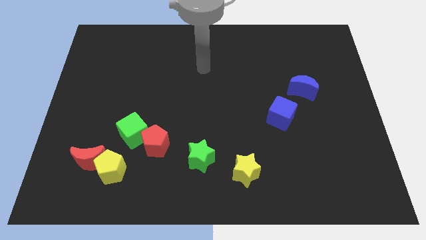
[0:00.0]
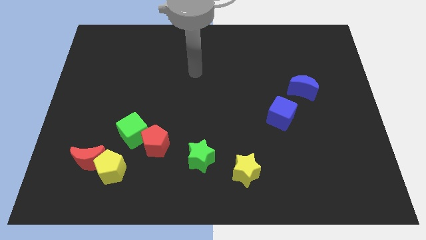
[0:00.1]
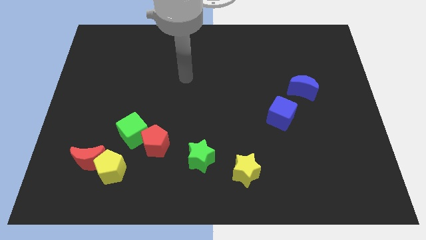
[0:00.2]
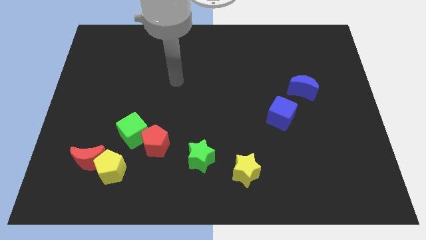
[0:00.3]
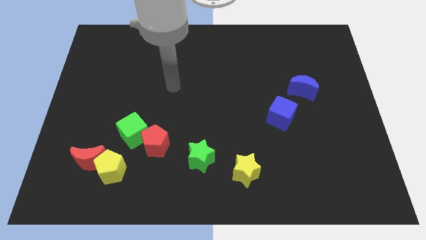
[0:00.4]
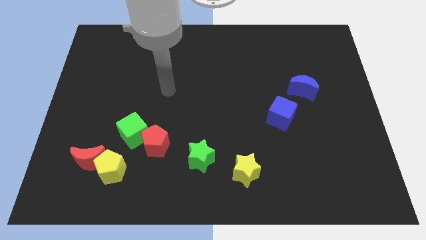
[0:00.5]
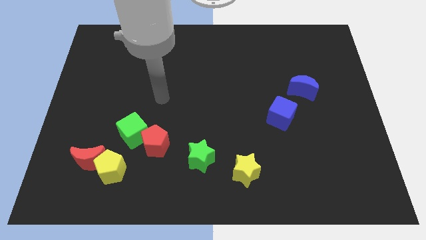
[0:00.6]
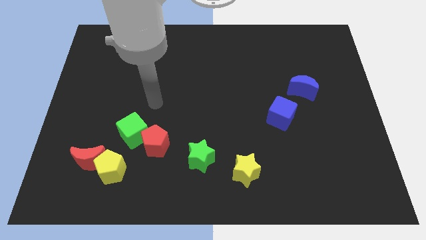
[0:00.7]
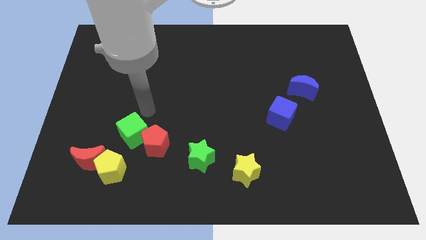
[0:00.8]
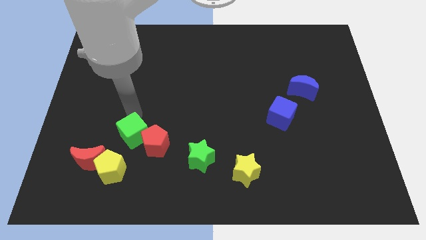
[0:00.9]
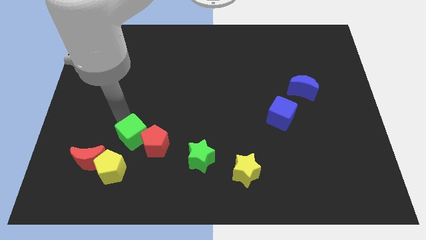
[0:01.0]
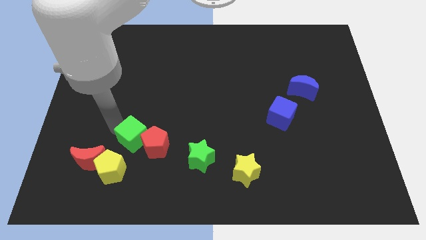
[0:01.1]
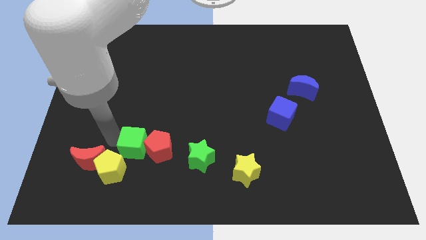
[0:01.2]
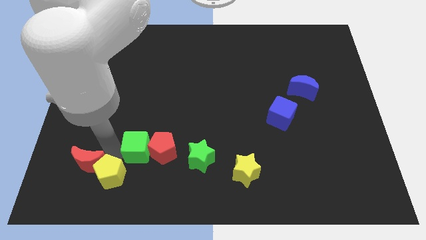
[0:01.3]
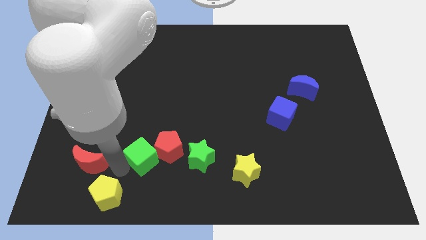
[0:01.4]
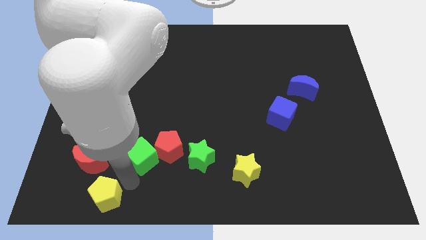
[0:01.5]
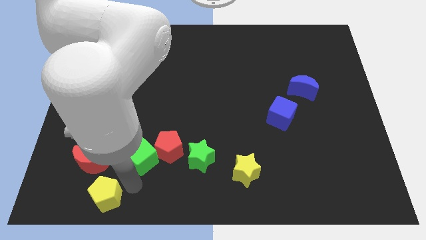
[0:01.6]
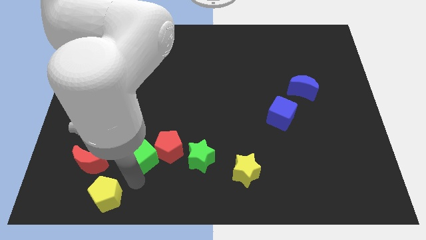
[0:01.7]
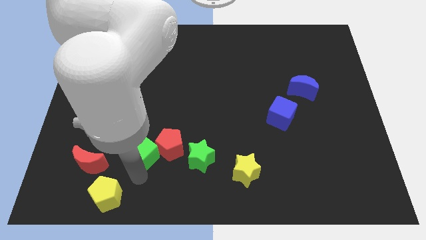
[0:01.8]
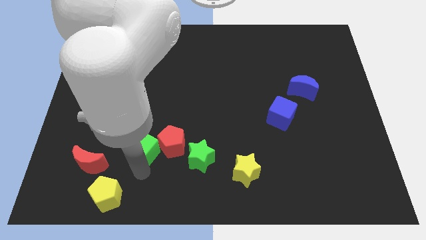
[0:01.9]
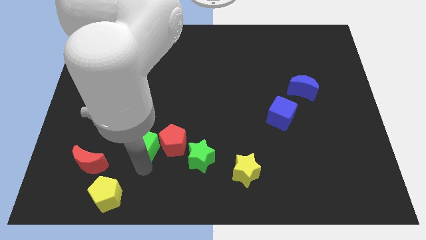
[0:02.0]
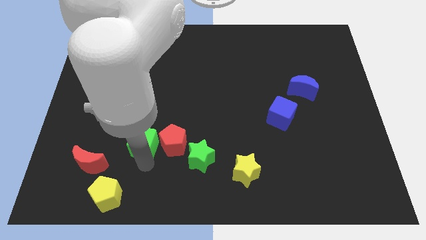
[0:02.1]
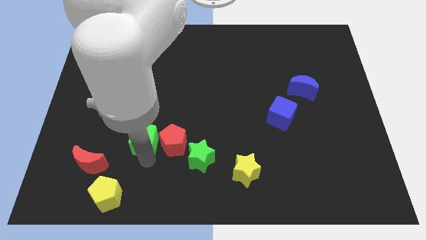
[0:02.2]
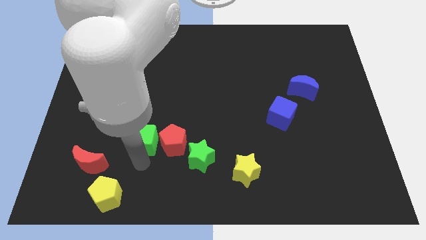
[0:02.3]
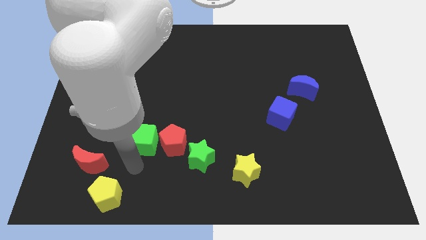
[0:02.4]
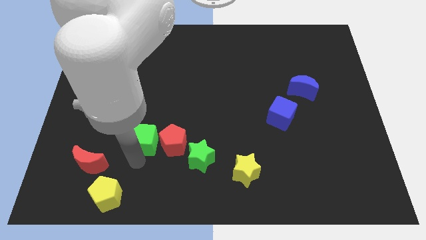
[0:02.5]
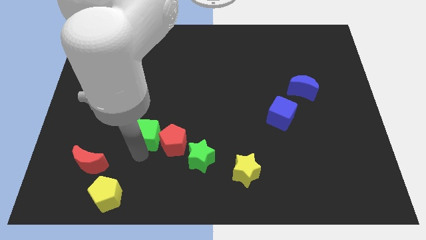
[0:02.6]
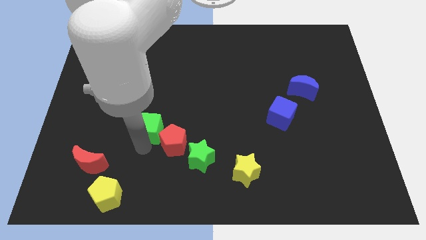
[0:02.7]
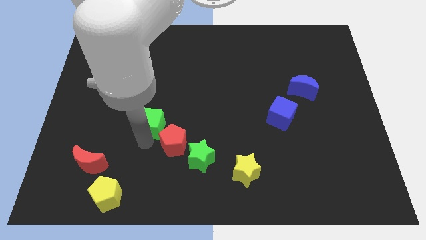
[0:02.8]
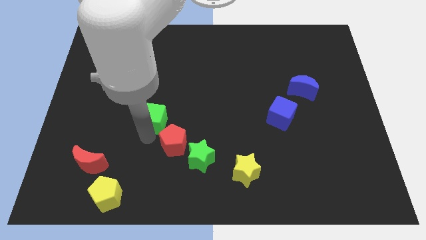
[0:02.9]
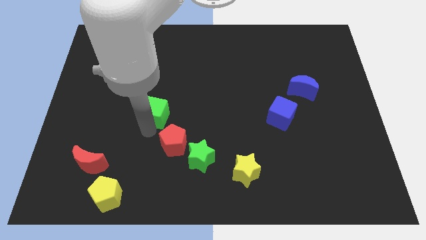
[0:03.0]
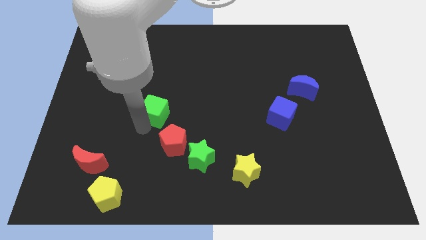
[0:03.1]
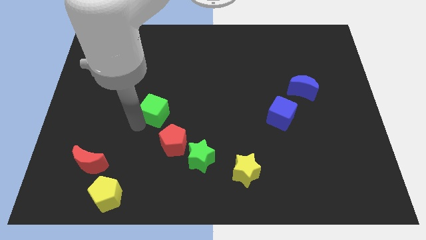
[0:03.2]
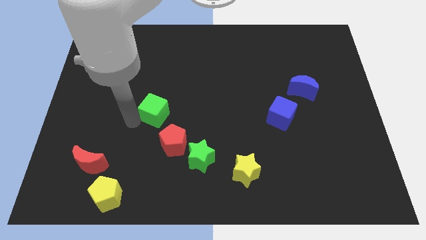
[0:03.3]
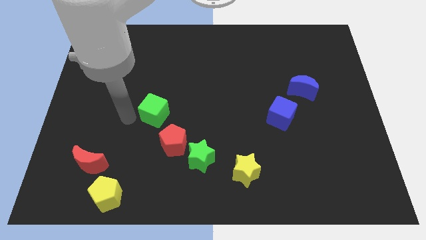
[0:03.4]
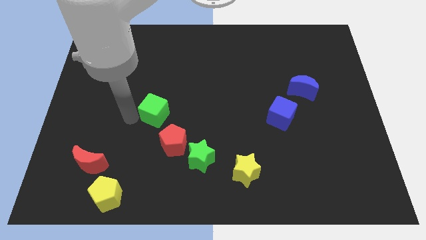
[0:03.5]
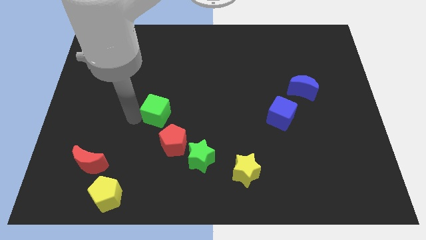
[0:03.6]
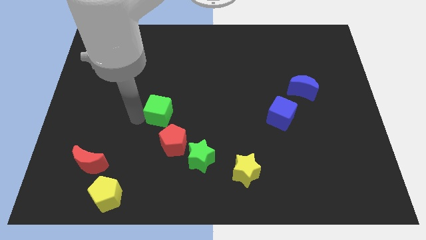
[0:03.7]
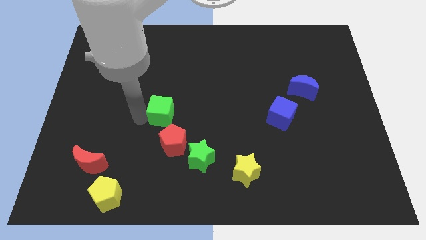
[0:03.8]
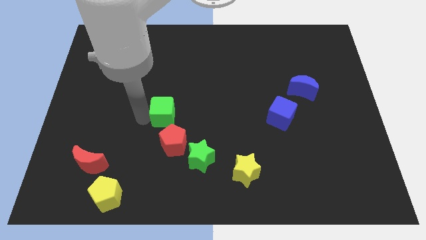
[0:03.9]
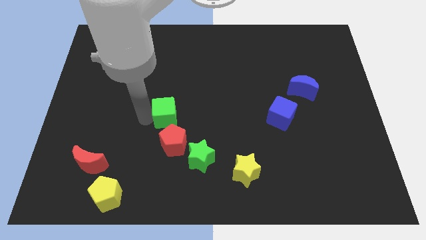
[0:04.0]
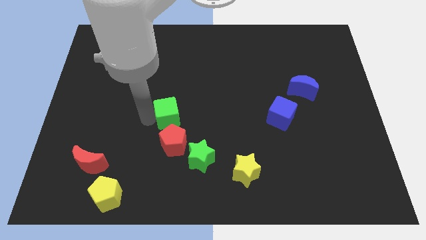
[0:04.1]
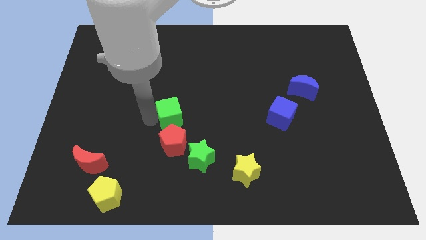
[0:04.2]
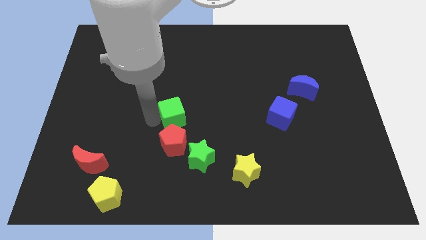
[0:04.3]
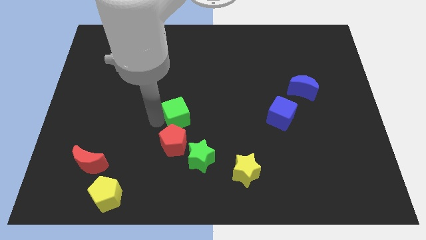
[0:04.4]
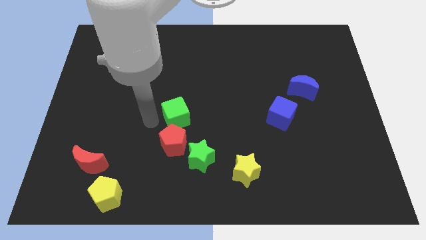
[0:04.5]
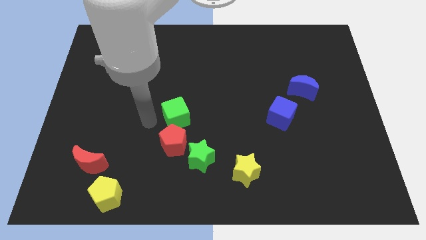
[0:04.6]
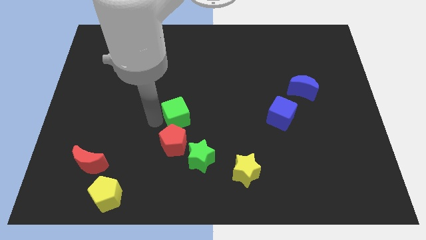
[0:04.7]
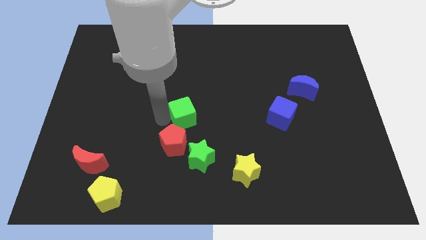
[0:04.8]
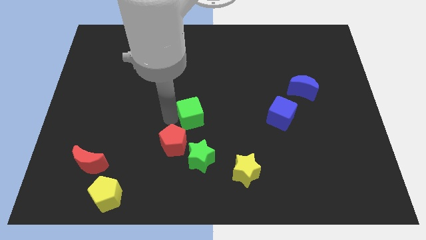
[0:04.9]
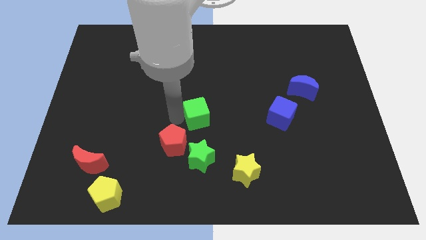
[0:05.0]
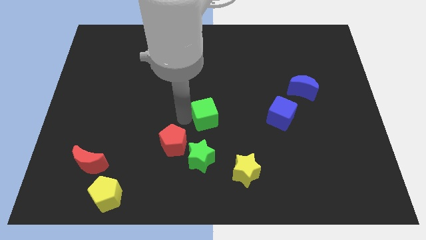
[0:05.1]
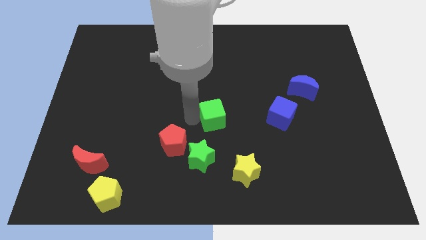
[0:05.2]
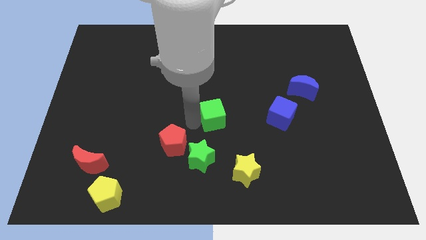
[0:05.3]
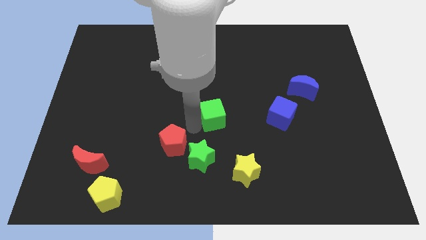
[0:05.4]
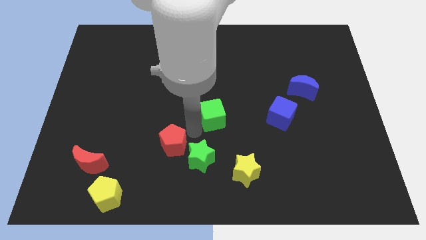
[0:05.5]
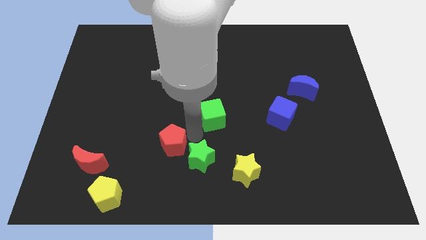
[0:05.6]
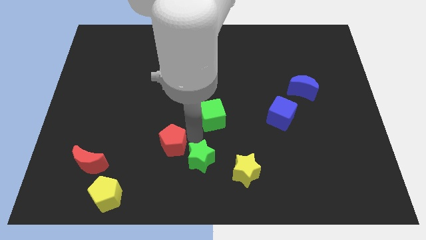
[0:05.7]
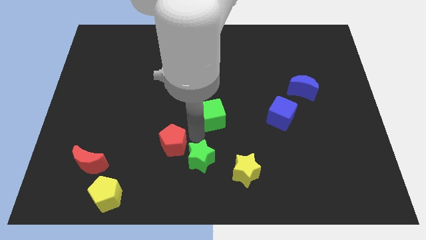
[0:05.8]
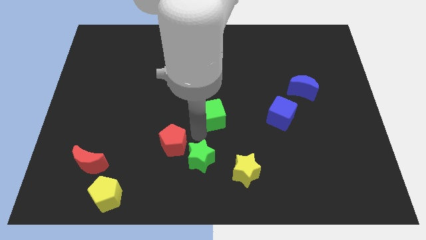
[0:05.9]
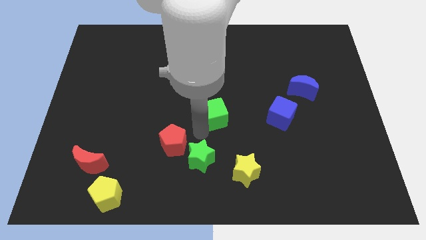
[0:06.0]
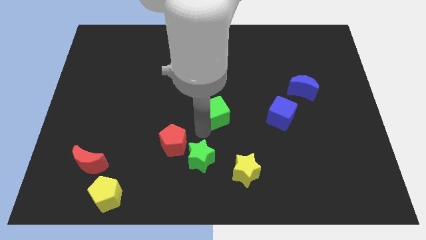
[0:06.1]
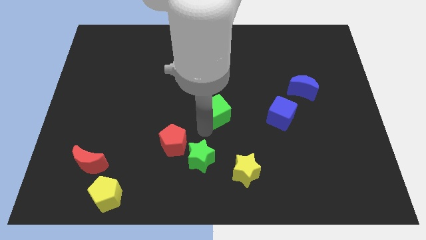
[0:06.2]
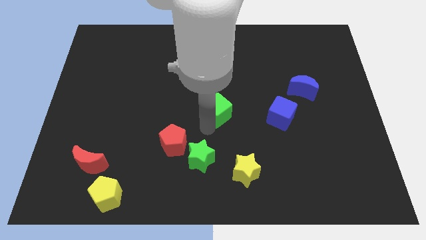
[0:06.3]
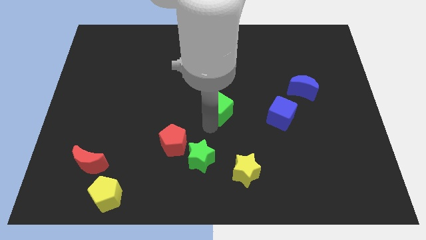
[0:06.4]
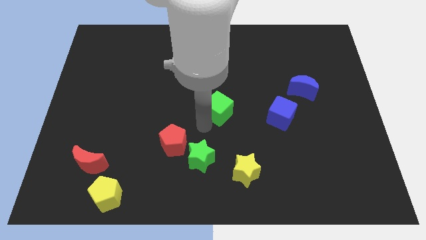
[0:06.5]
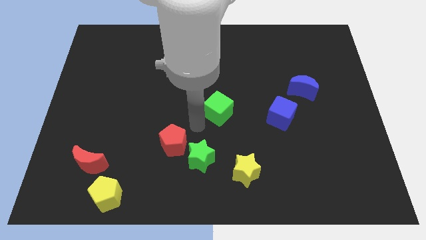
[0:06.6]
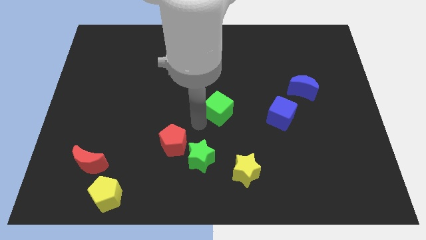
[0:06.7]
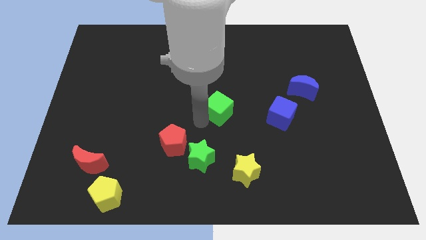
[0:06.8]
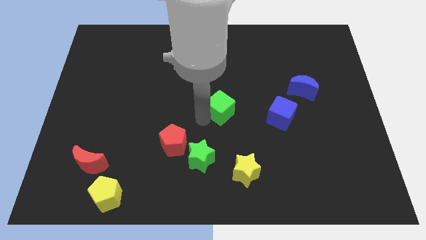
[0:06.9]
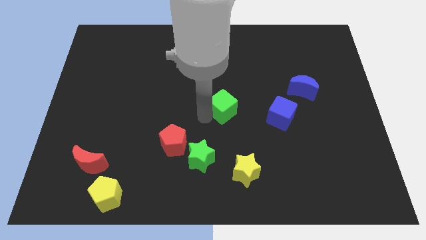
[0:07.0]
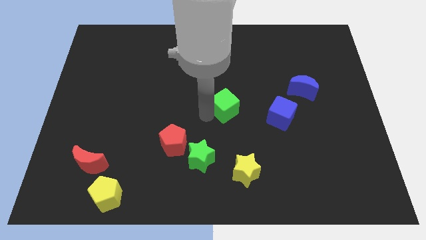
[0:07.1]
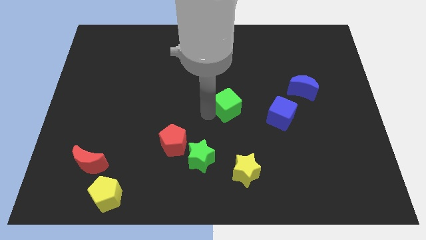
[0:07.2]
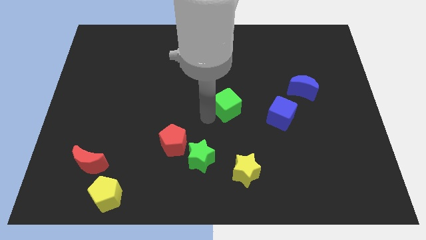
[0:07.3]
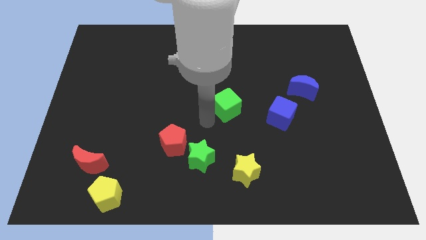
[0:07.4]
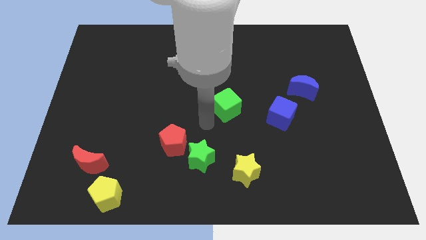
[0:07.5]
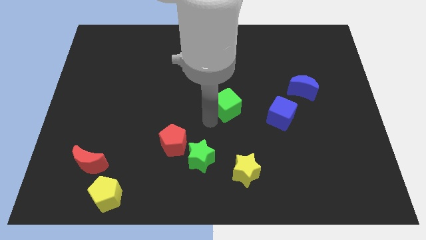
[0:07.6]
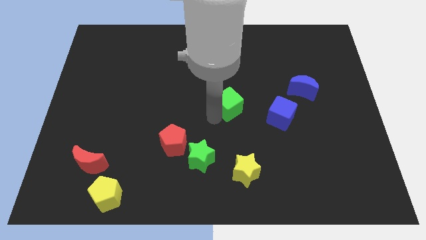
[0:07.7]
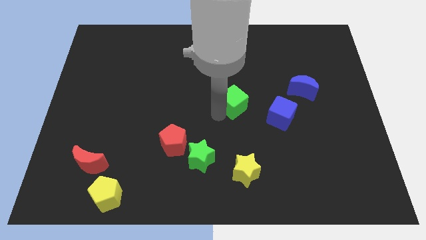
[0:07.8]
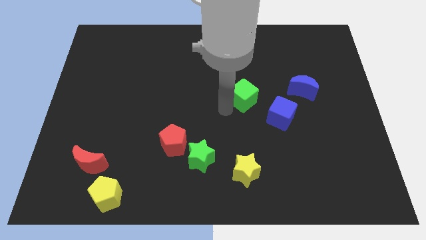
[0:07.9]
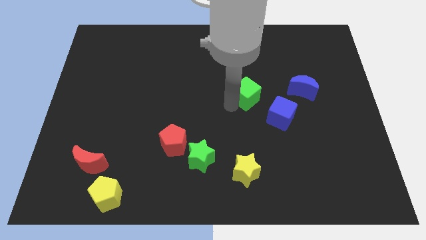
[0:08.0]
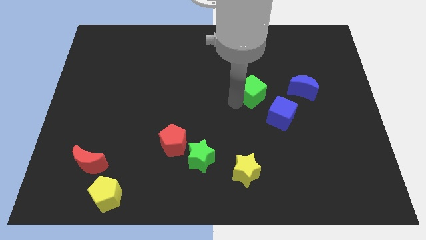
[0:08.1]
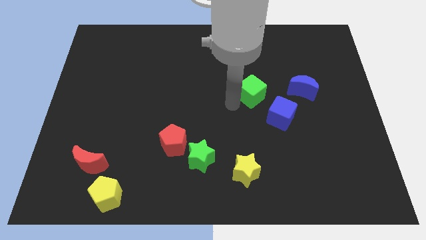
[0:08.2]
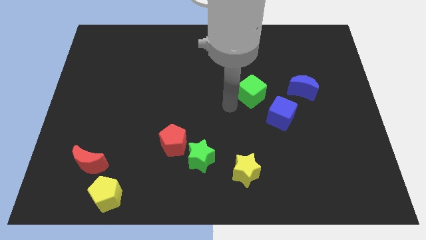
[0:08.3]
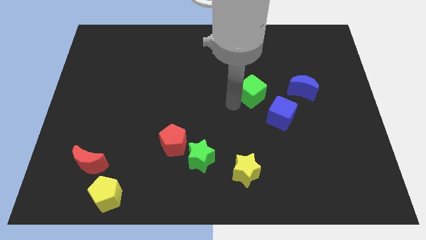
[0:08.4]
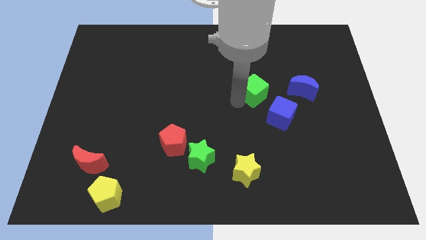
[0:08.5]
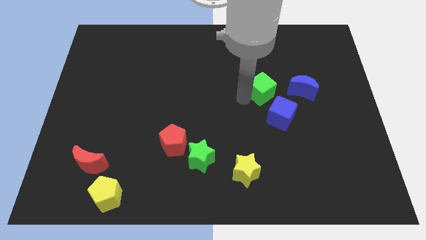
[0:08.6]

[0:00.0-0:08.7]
slide the green cube to the top side of the blue cube
